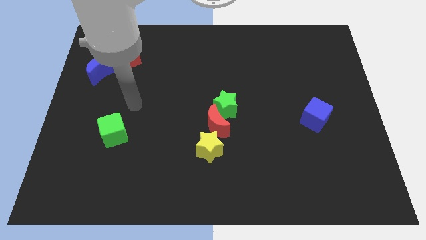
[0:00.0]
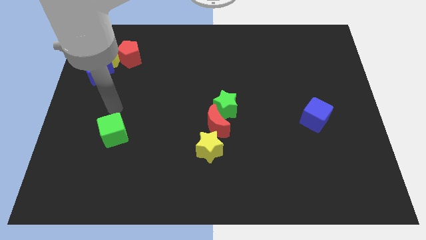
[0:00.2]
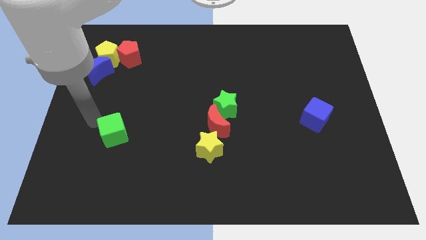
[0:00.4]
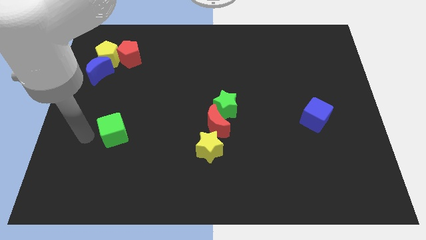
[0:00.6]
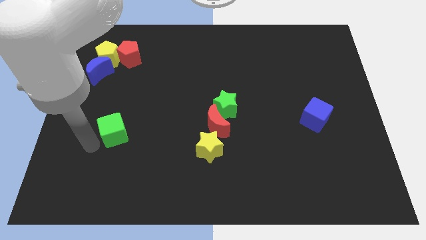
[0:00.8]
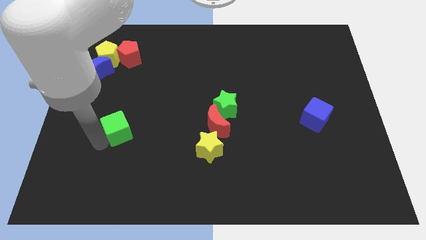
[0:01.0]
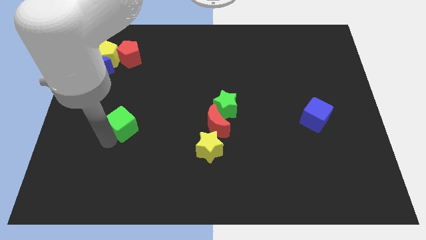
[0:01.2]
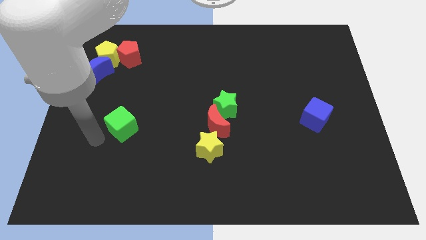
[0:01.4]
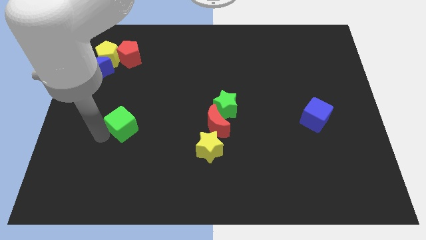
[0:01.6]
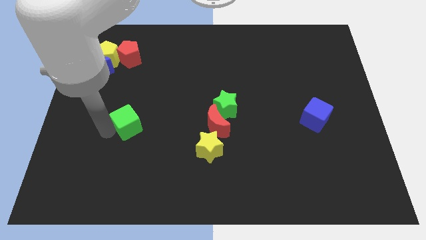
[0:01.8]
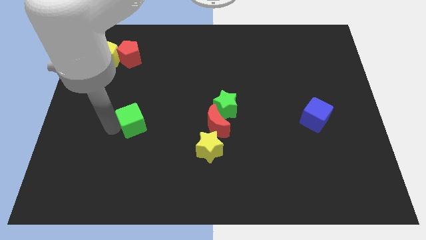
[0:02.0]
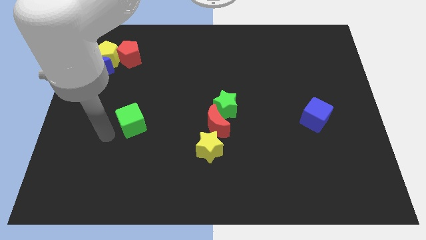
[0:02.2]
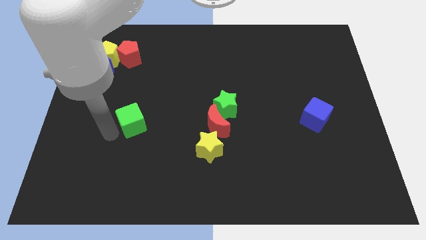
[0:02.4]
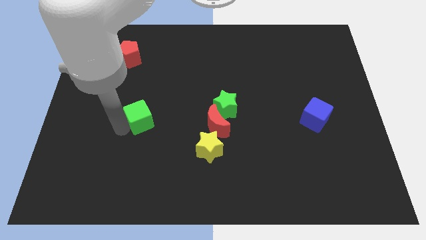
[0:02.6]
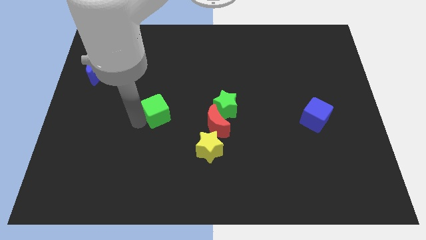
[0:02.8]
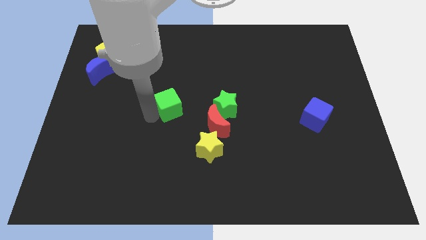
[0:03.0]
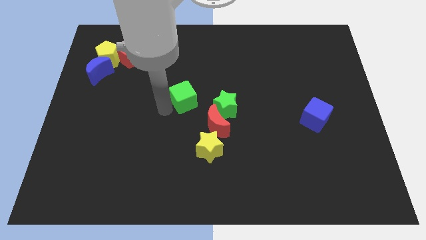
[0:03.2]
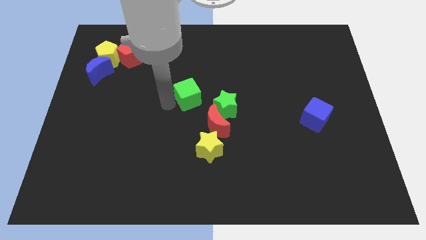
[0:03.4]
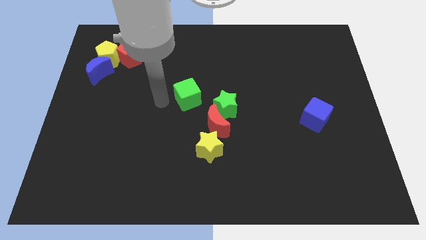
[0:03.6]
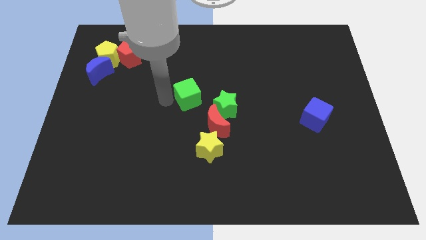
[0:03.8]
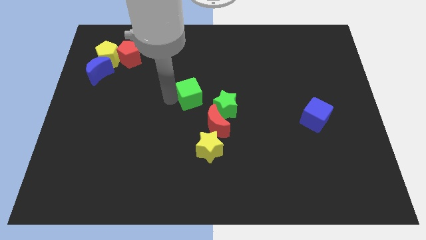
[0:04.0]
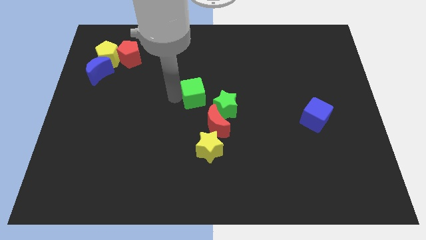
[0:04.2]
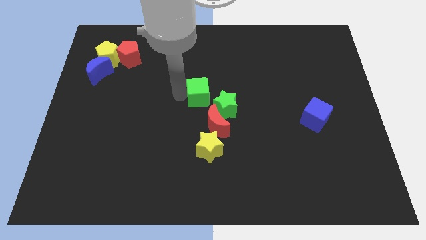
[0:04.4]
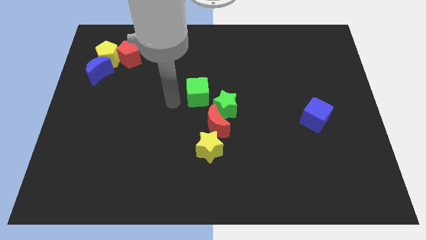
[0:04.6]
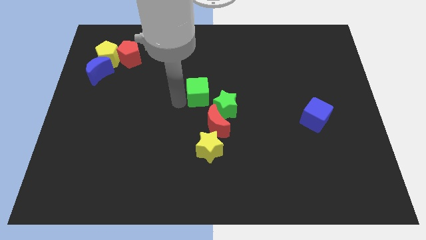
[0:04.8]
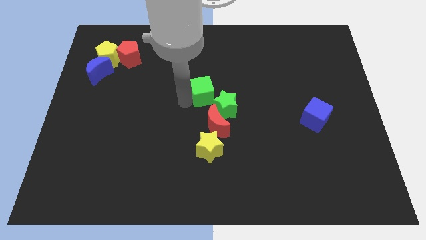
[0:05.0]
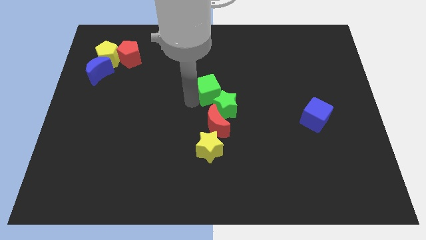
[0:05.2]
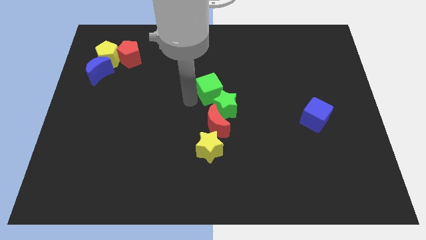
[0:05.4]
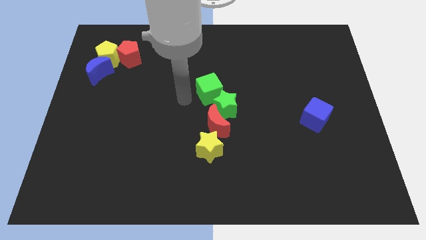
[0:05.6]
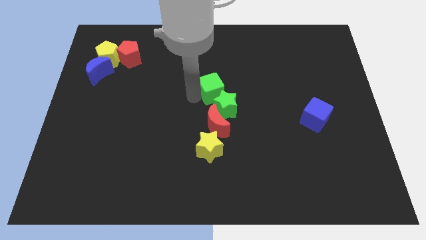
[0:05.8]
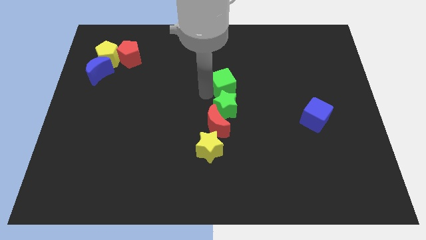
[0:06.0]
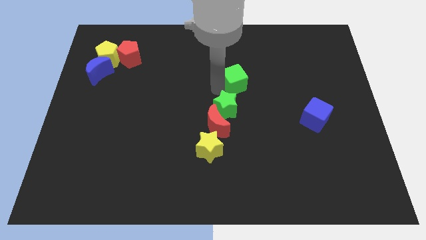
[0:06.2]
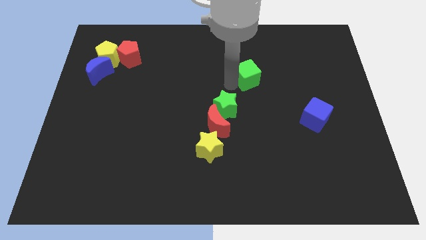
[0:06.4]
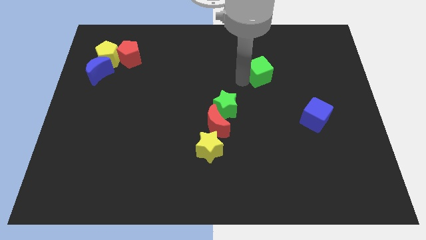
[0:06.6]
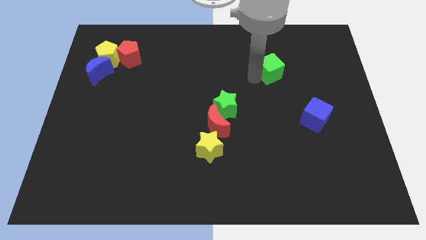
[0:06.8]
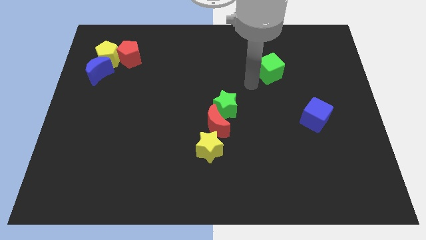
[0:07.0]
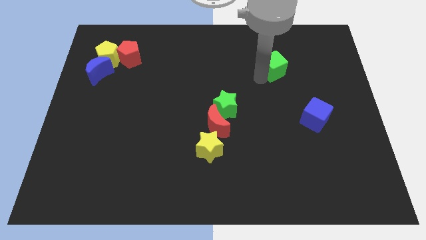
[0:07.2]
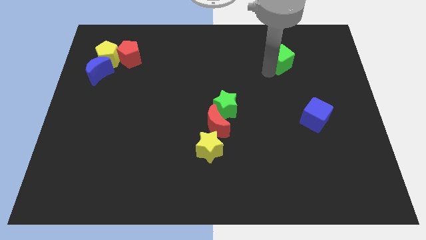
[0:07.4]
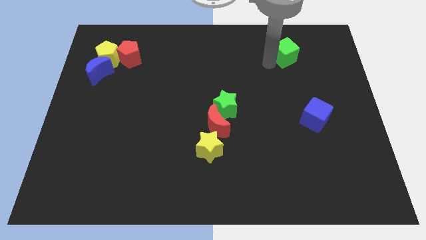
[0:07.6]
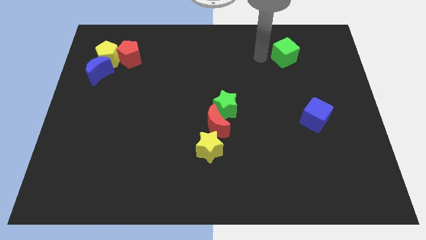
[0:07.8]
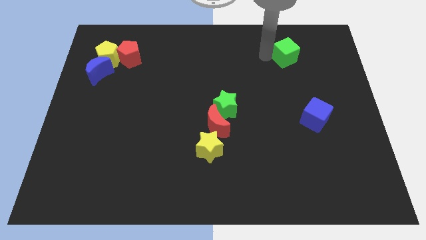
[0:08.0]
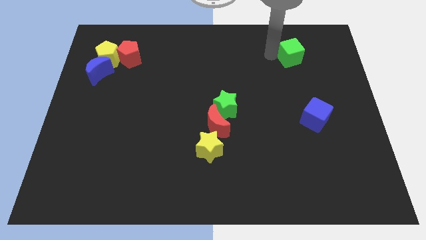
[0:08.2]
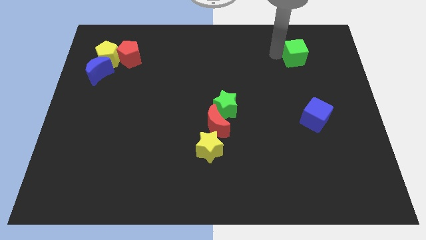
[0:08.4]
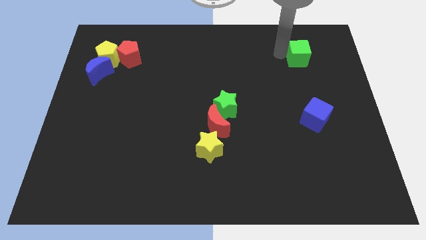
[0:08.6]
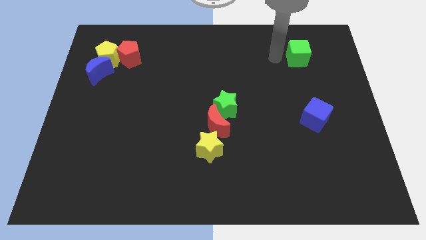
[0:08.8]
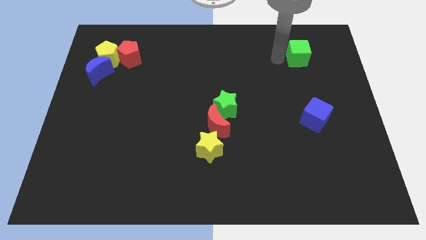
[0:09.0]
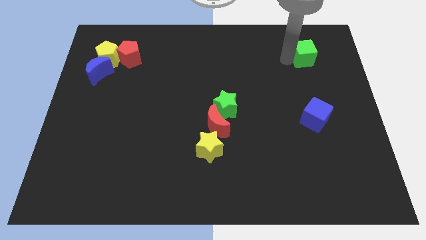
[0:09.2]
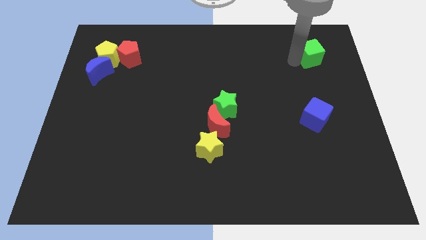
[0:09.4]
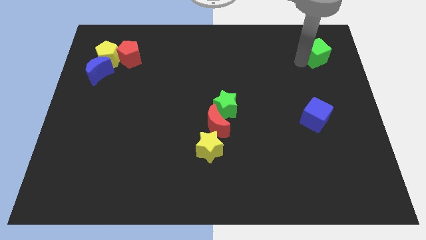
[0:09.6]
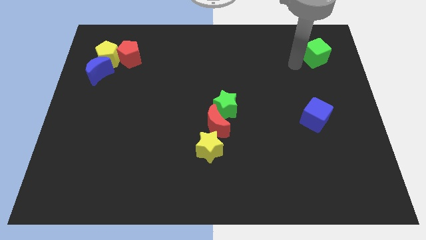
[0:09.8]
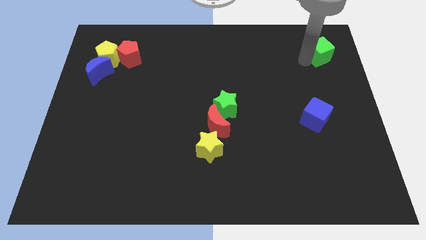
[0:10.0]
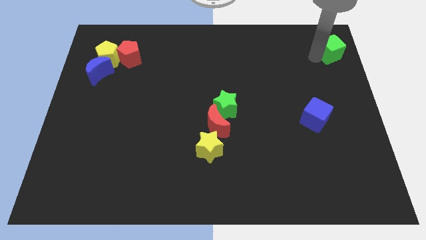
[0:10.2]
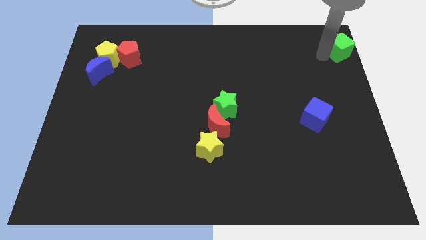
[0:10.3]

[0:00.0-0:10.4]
push the green cube to the upper right corner

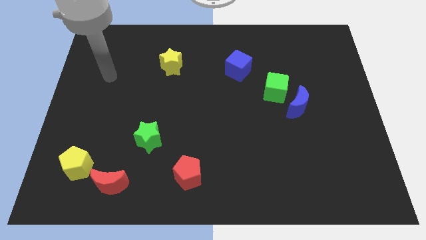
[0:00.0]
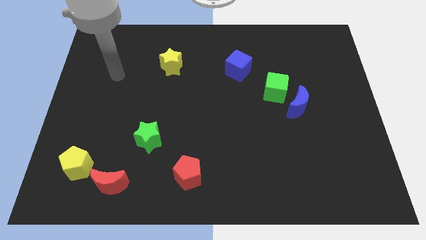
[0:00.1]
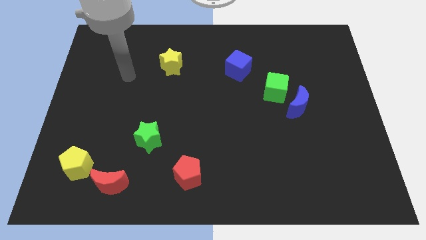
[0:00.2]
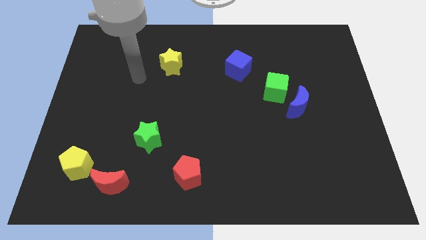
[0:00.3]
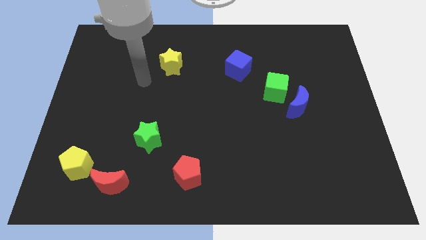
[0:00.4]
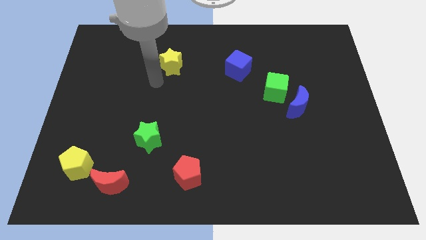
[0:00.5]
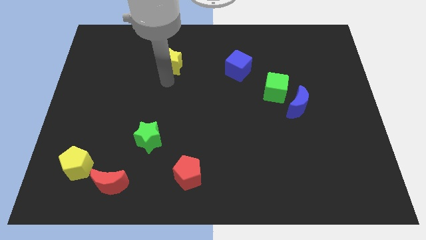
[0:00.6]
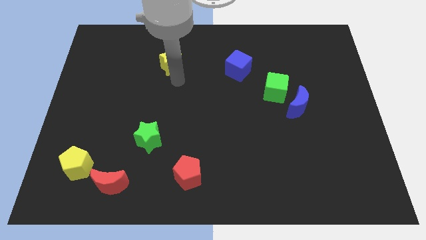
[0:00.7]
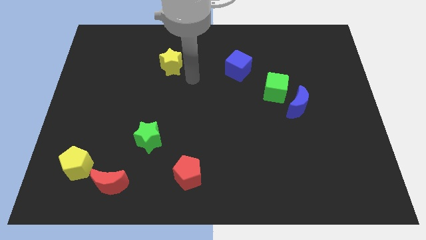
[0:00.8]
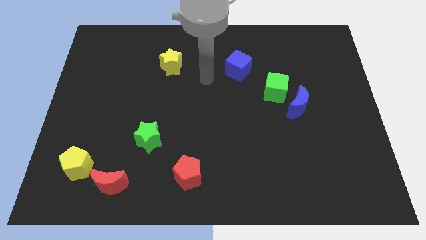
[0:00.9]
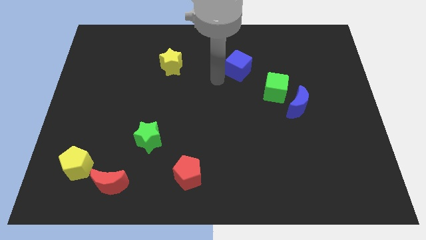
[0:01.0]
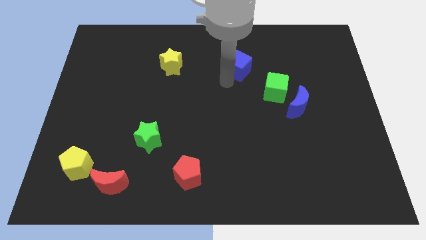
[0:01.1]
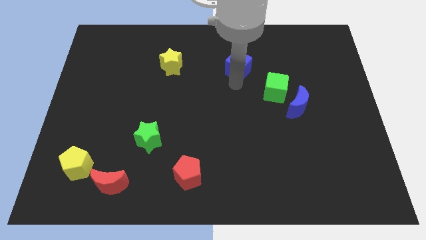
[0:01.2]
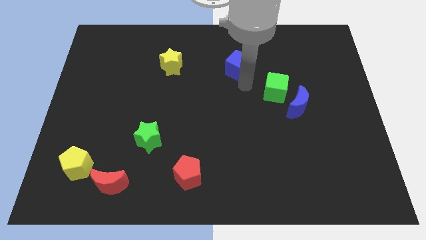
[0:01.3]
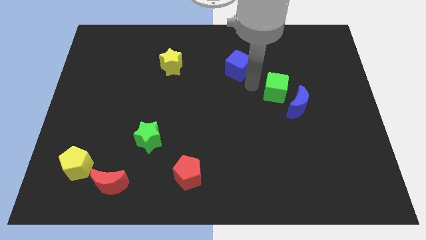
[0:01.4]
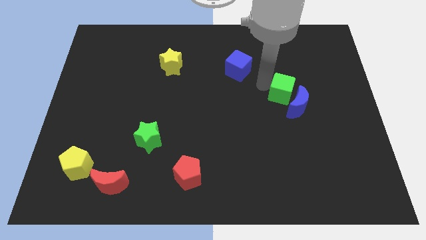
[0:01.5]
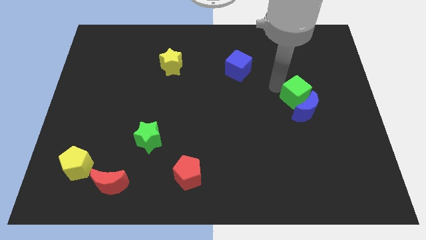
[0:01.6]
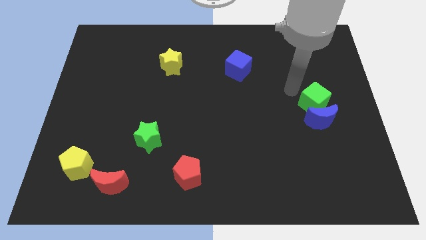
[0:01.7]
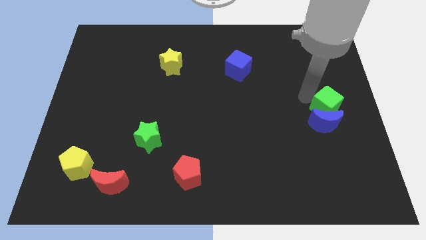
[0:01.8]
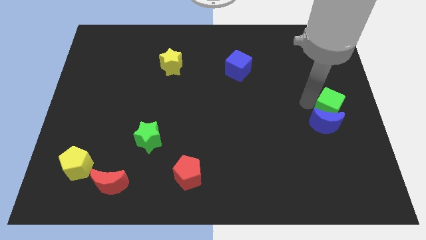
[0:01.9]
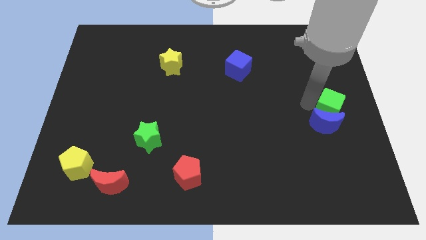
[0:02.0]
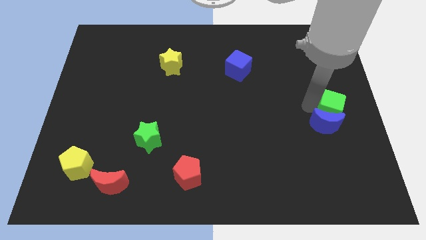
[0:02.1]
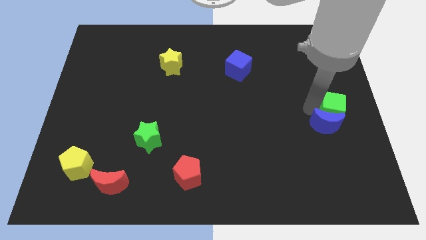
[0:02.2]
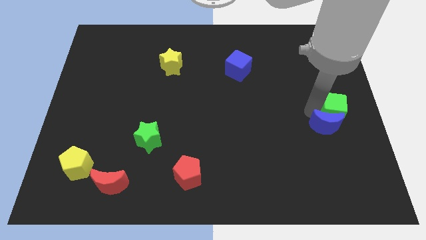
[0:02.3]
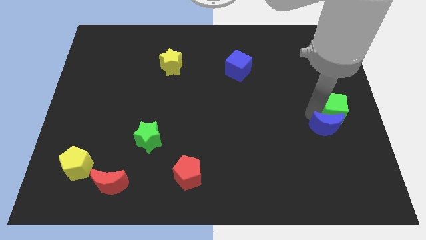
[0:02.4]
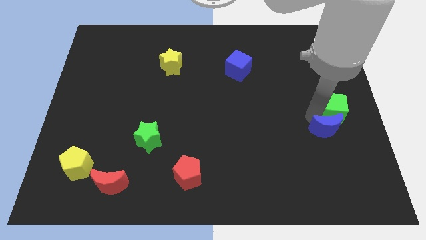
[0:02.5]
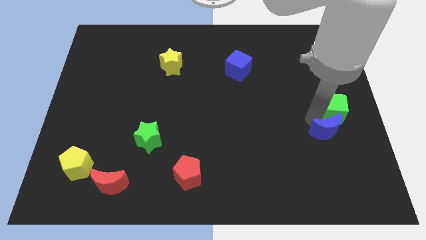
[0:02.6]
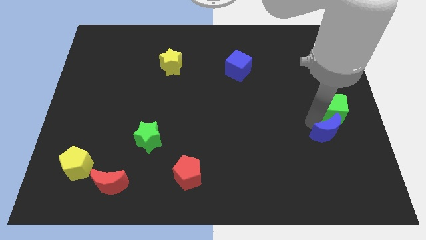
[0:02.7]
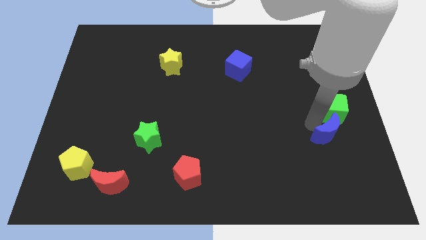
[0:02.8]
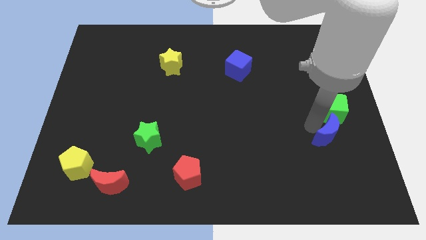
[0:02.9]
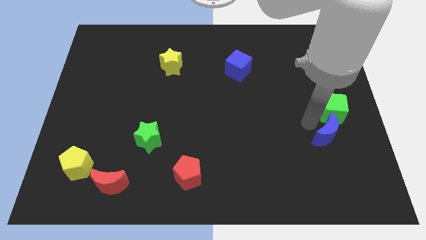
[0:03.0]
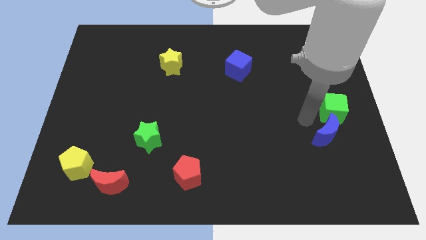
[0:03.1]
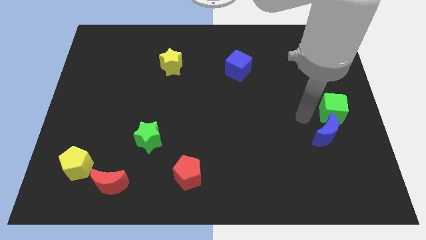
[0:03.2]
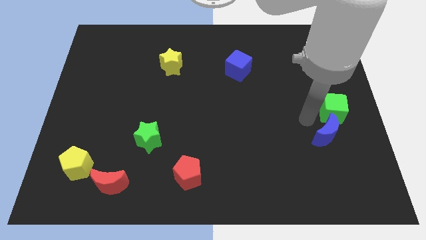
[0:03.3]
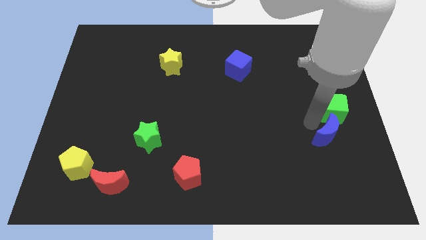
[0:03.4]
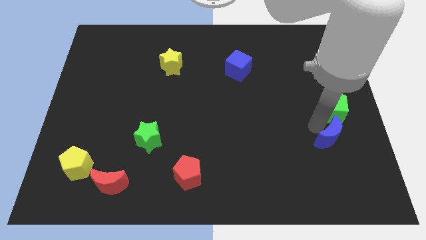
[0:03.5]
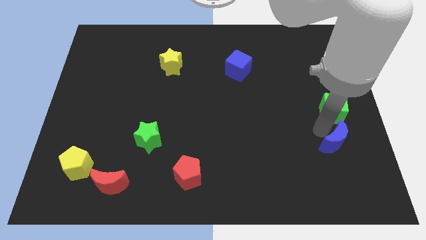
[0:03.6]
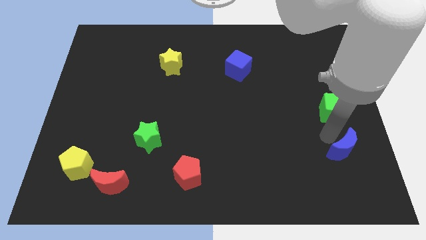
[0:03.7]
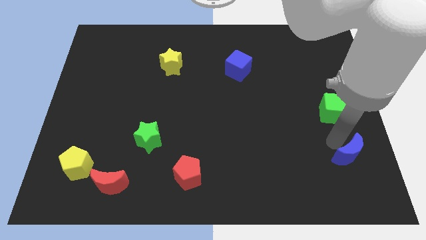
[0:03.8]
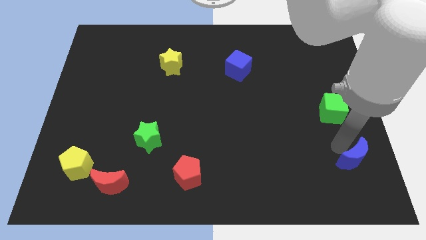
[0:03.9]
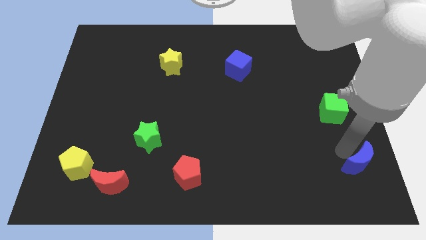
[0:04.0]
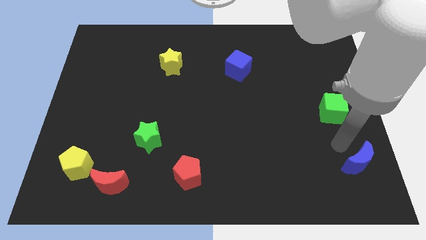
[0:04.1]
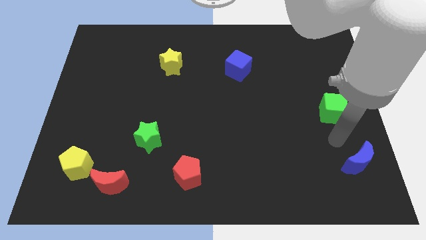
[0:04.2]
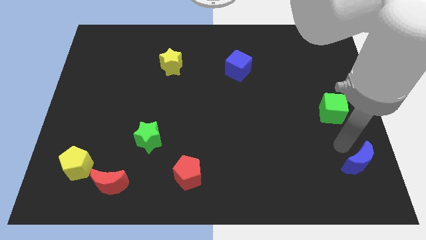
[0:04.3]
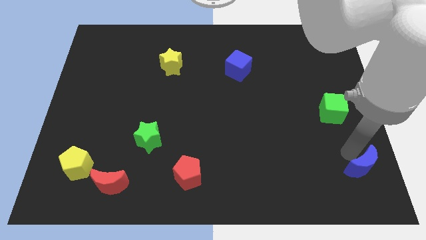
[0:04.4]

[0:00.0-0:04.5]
push the blue moon to the bottom right
